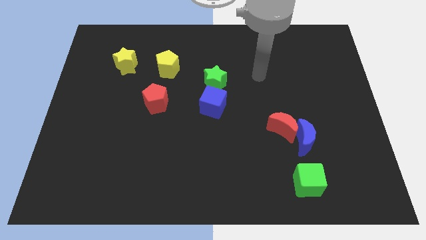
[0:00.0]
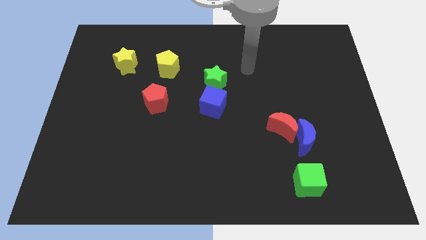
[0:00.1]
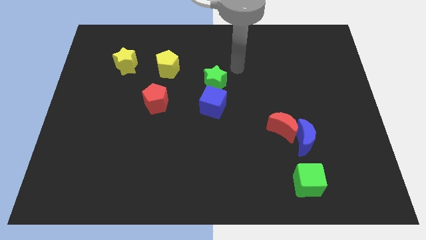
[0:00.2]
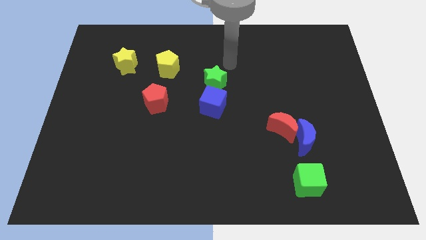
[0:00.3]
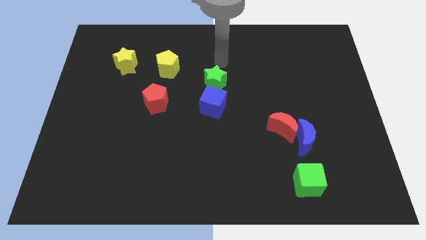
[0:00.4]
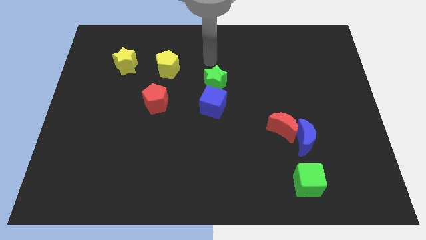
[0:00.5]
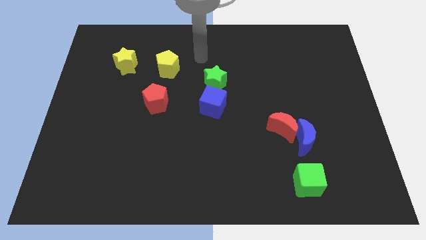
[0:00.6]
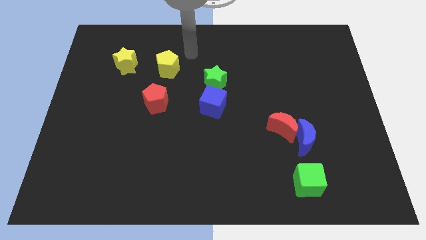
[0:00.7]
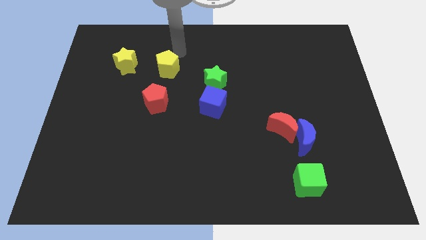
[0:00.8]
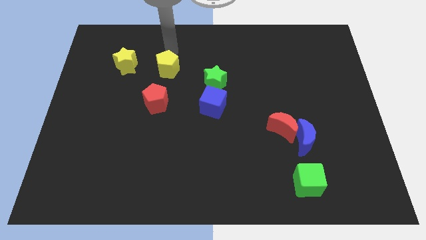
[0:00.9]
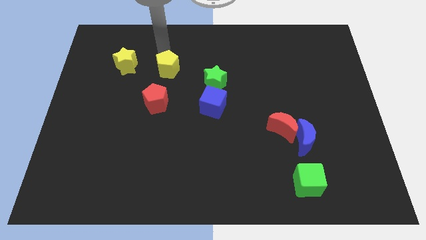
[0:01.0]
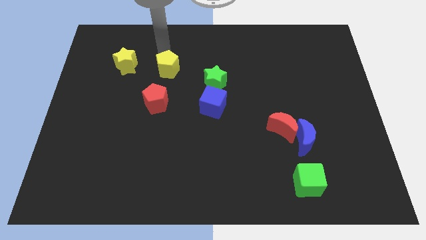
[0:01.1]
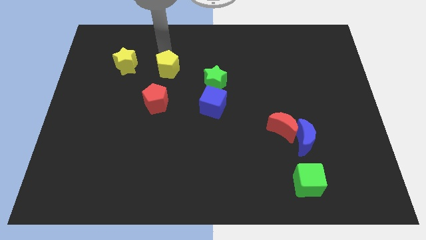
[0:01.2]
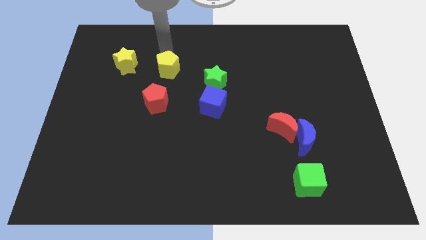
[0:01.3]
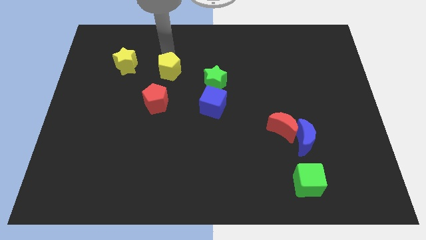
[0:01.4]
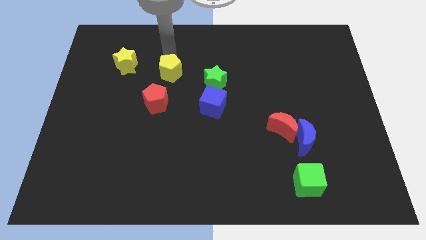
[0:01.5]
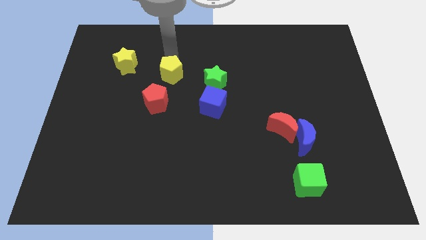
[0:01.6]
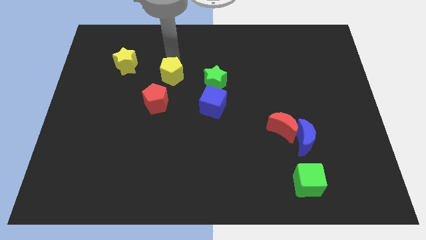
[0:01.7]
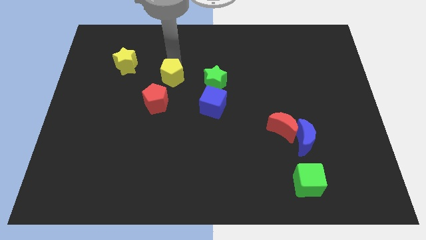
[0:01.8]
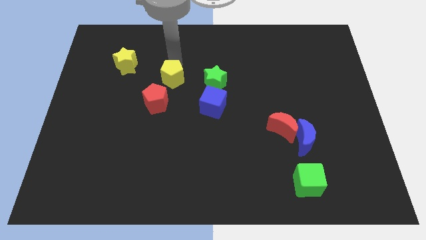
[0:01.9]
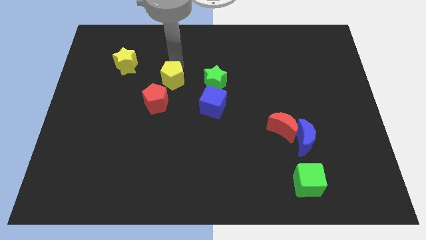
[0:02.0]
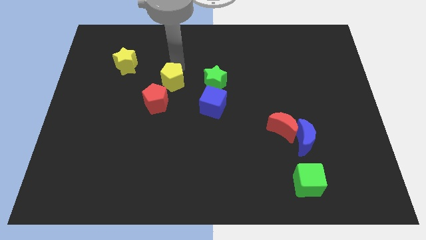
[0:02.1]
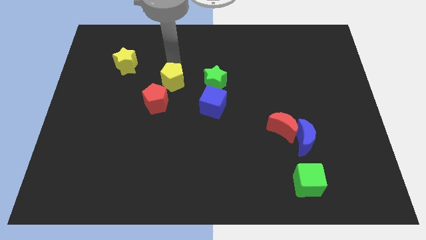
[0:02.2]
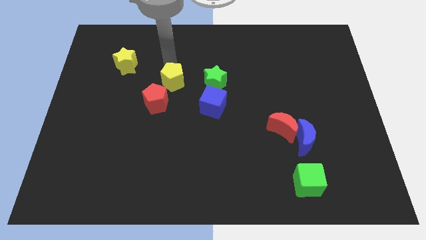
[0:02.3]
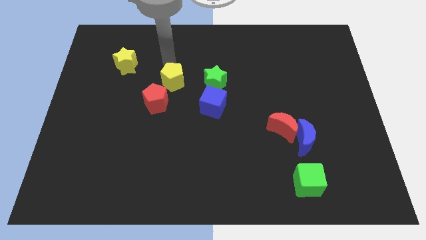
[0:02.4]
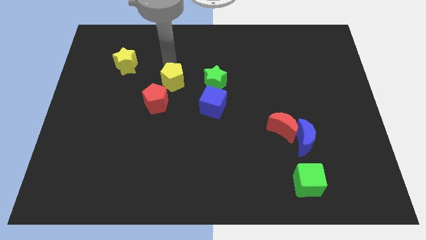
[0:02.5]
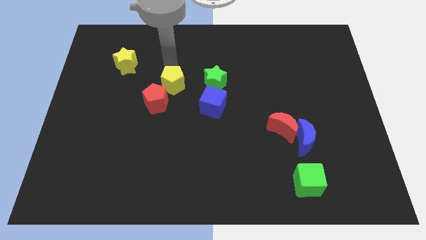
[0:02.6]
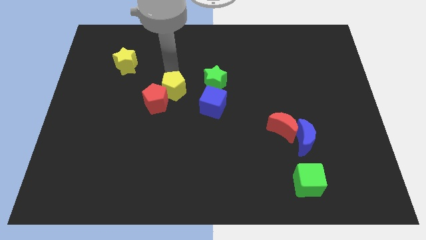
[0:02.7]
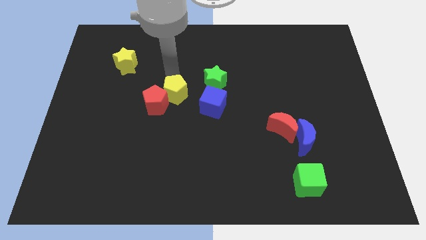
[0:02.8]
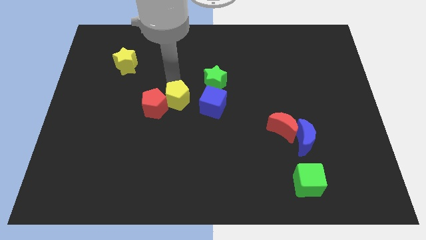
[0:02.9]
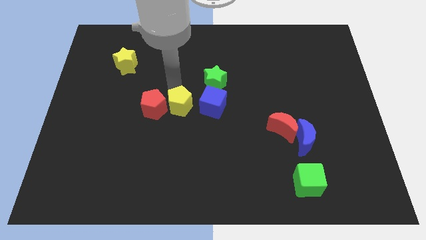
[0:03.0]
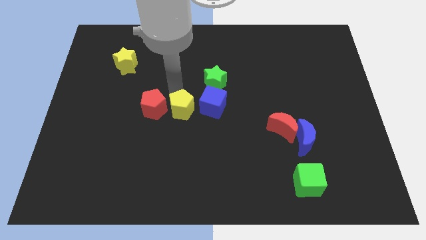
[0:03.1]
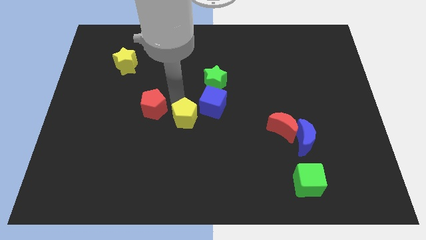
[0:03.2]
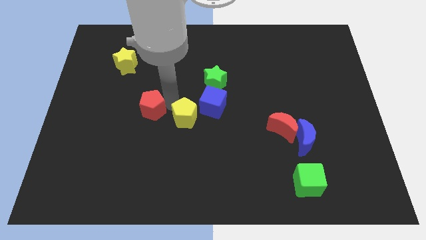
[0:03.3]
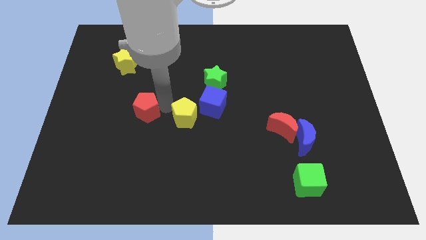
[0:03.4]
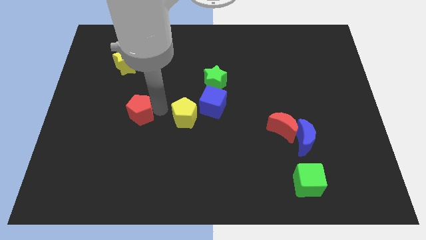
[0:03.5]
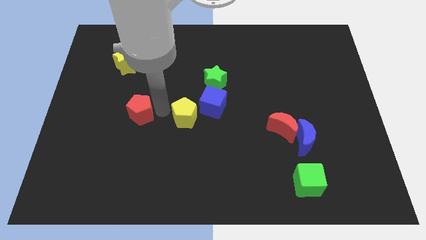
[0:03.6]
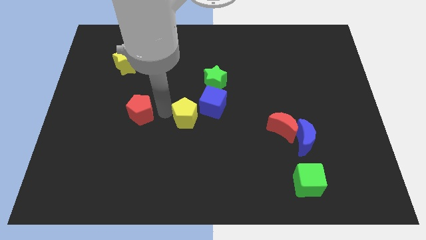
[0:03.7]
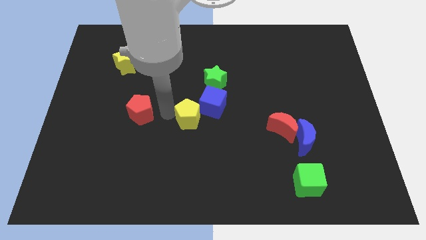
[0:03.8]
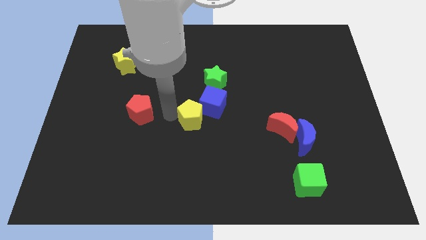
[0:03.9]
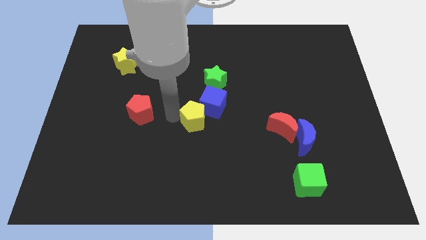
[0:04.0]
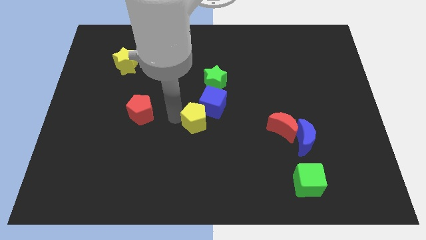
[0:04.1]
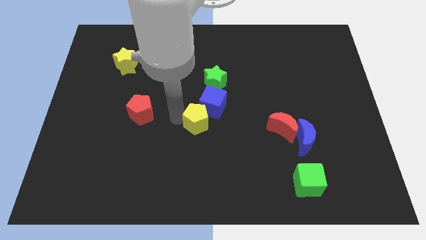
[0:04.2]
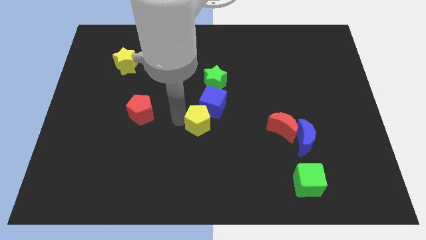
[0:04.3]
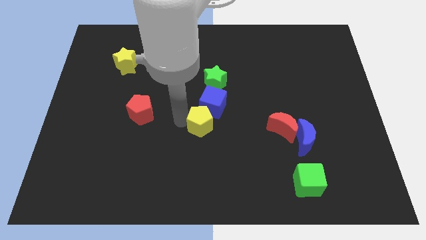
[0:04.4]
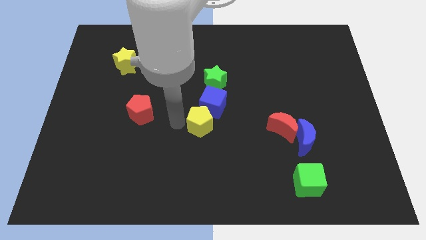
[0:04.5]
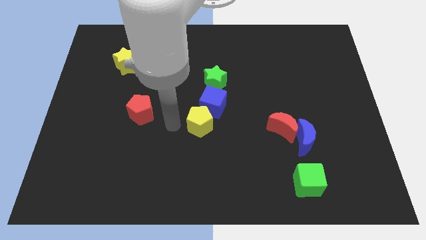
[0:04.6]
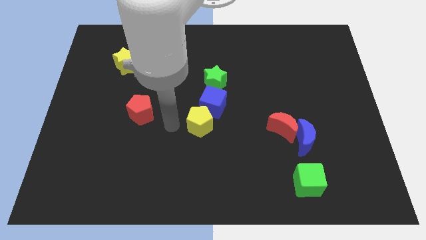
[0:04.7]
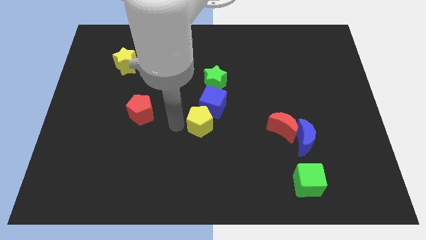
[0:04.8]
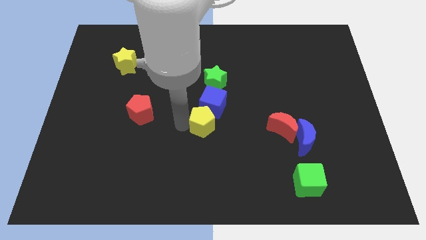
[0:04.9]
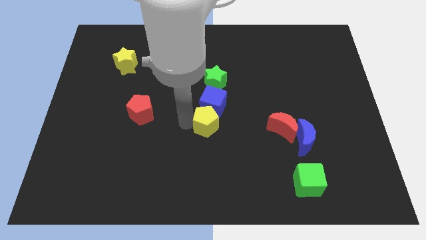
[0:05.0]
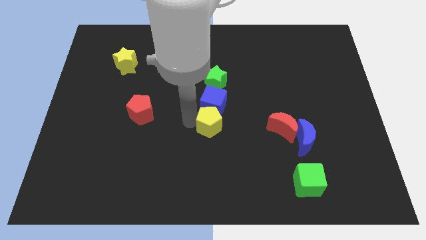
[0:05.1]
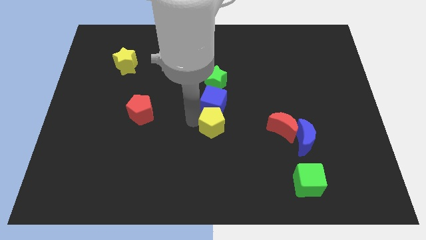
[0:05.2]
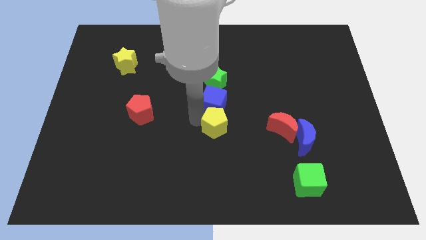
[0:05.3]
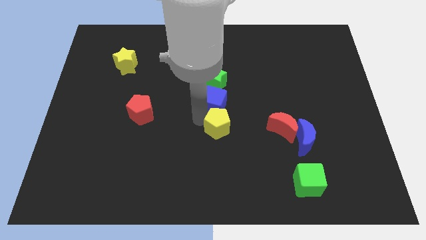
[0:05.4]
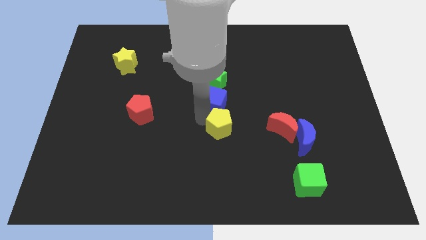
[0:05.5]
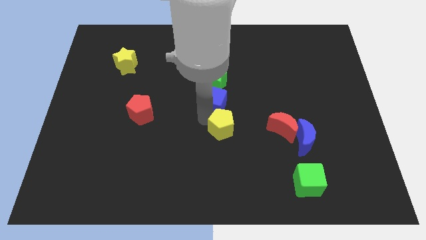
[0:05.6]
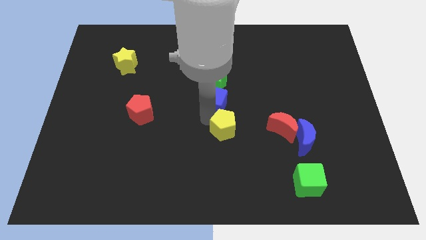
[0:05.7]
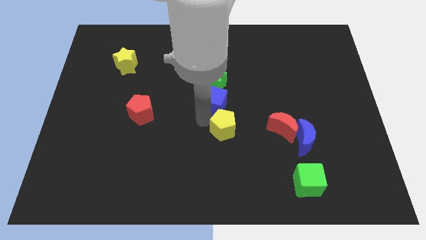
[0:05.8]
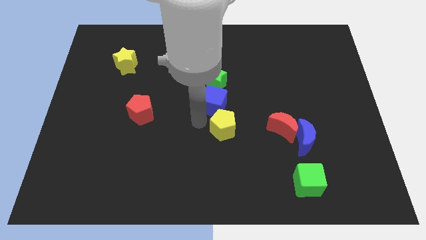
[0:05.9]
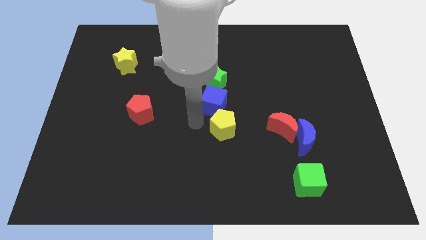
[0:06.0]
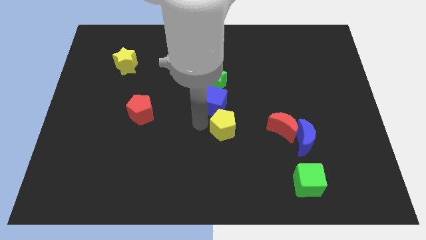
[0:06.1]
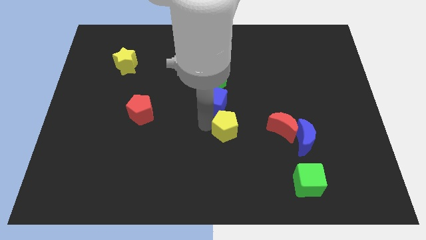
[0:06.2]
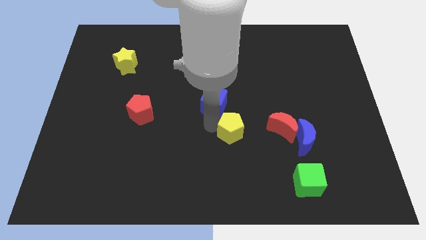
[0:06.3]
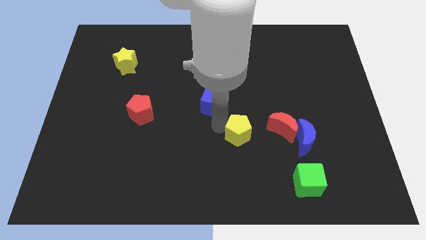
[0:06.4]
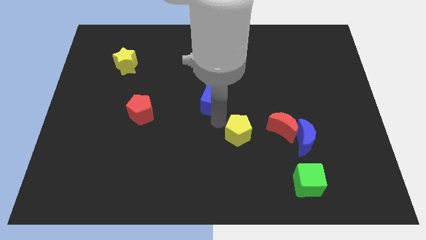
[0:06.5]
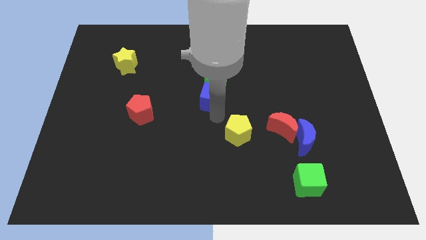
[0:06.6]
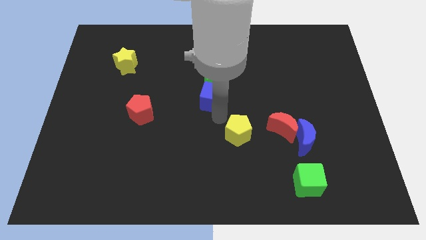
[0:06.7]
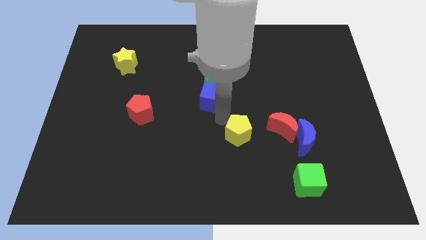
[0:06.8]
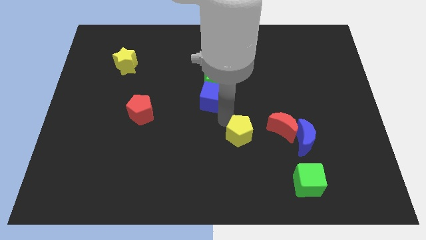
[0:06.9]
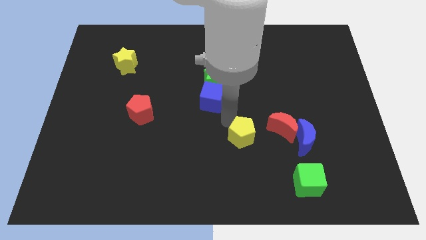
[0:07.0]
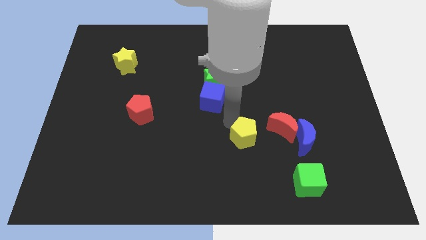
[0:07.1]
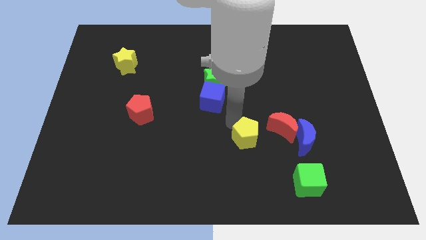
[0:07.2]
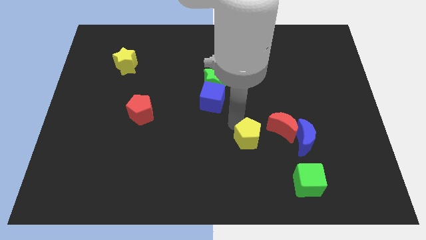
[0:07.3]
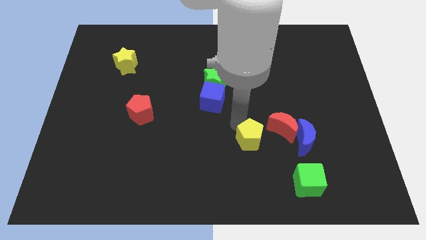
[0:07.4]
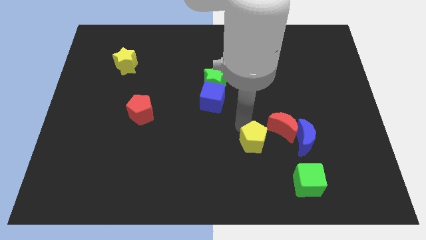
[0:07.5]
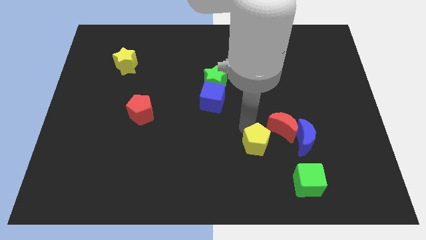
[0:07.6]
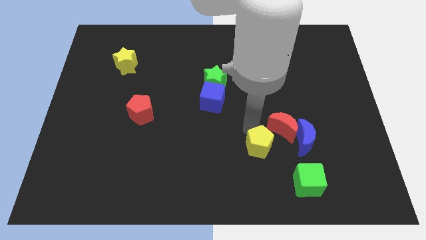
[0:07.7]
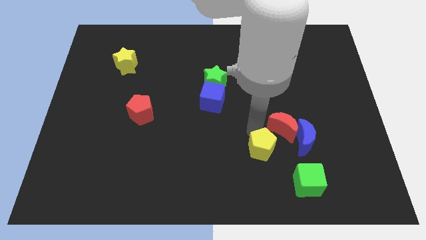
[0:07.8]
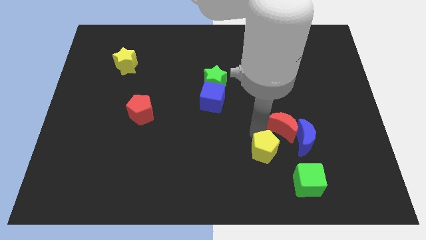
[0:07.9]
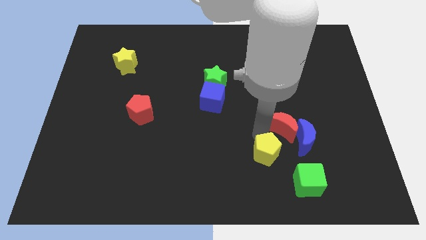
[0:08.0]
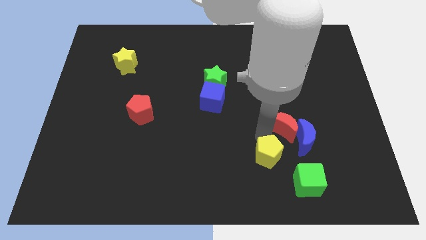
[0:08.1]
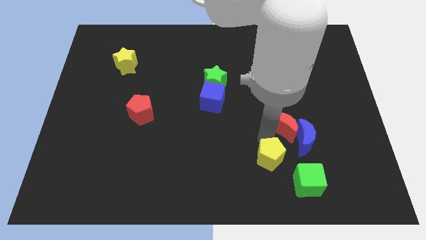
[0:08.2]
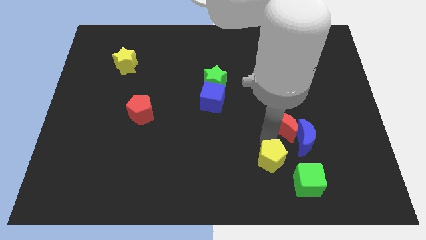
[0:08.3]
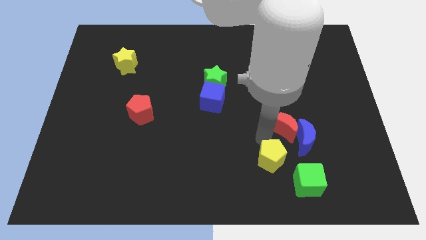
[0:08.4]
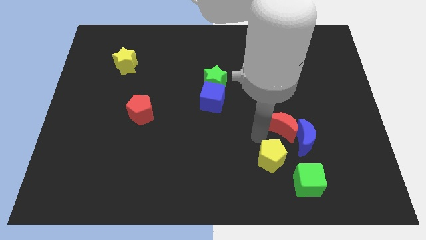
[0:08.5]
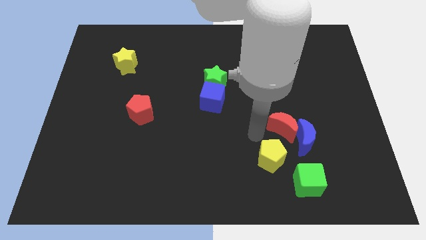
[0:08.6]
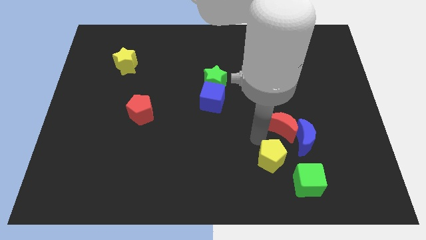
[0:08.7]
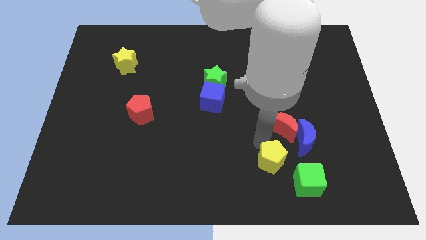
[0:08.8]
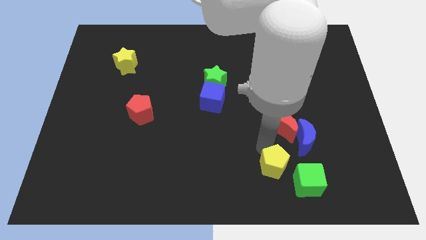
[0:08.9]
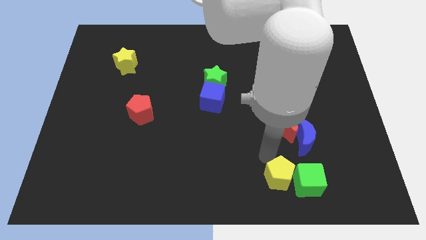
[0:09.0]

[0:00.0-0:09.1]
put the yellow pentagon close to the green cube
